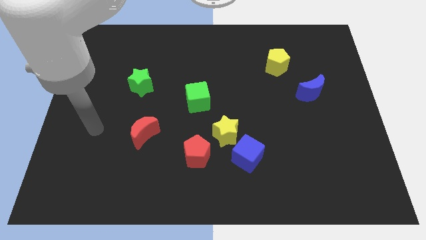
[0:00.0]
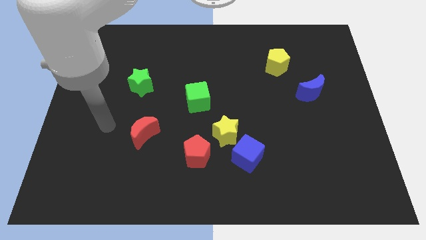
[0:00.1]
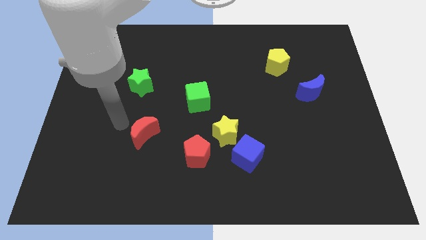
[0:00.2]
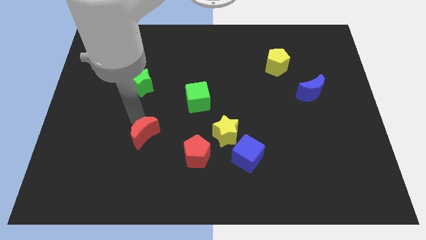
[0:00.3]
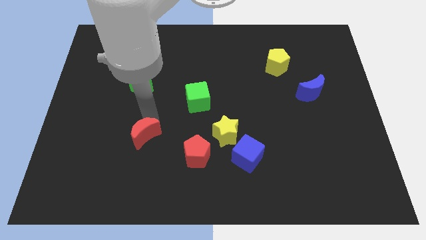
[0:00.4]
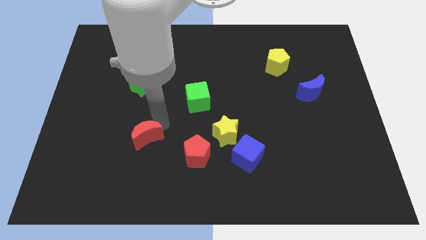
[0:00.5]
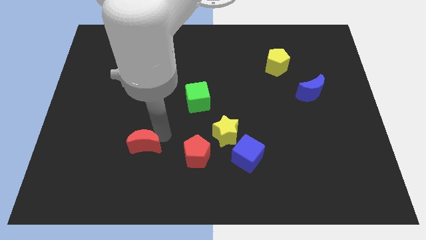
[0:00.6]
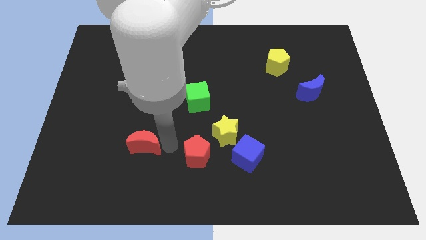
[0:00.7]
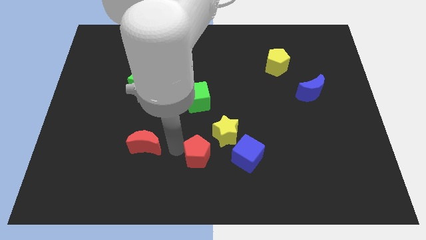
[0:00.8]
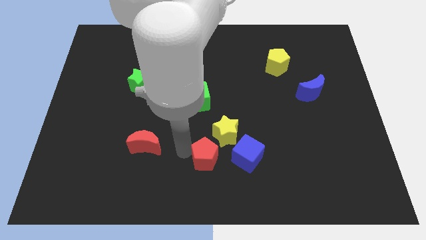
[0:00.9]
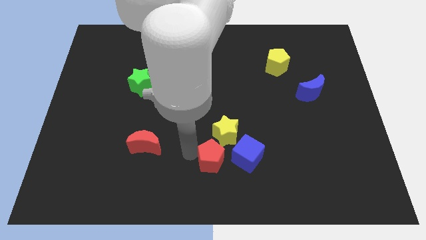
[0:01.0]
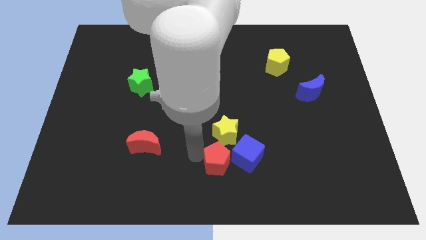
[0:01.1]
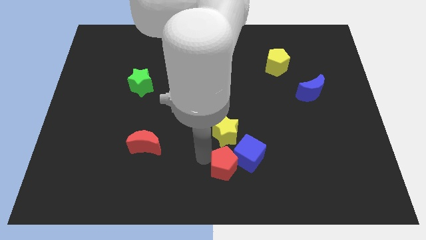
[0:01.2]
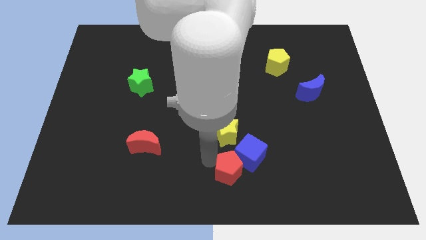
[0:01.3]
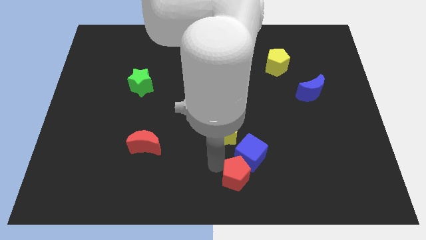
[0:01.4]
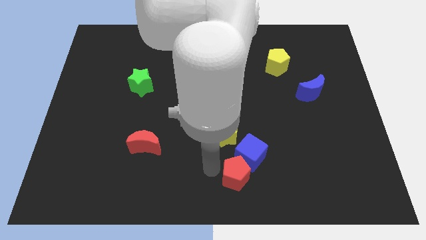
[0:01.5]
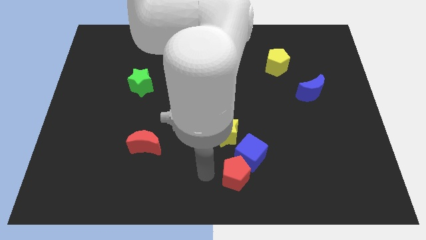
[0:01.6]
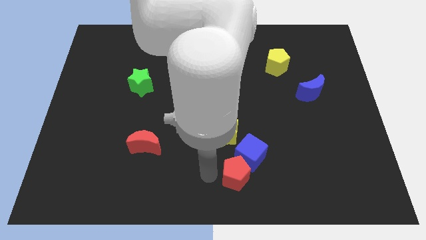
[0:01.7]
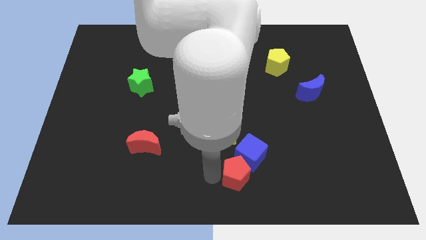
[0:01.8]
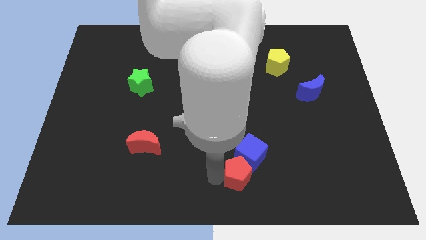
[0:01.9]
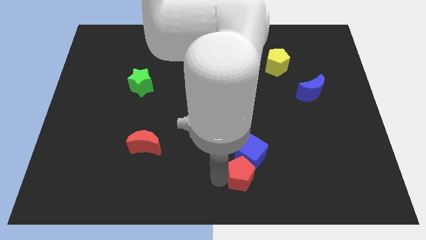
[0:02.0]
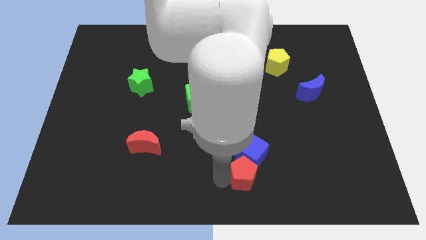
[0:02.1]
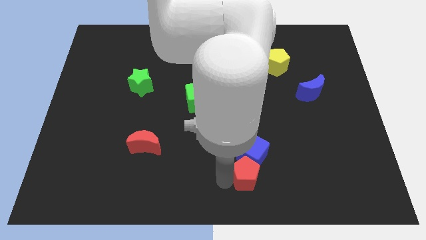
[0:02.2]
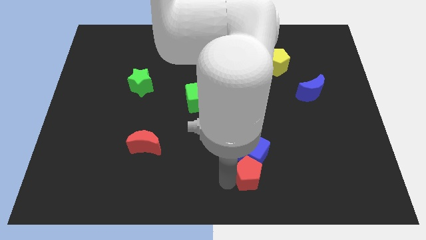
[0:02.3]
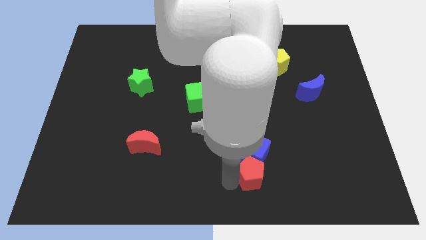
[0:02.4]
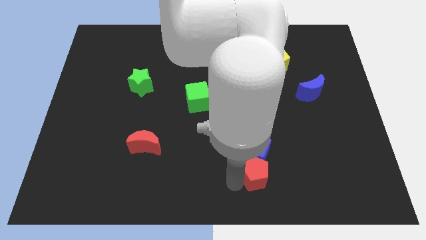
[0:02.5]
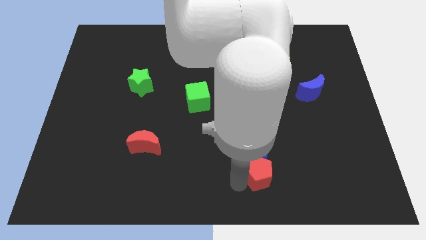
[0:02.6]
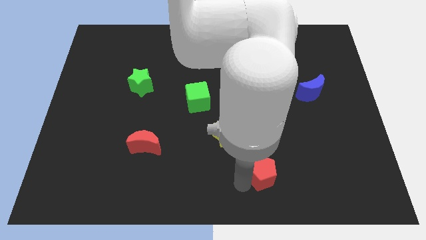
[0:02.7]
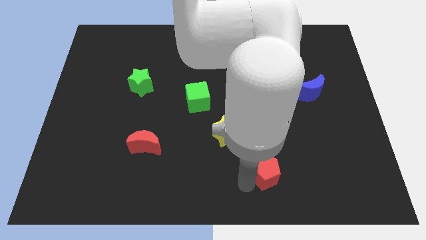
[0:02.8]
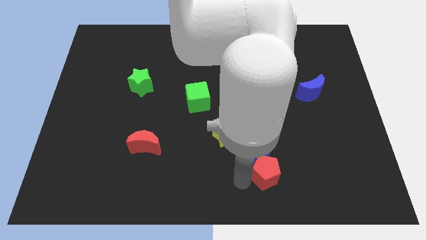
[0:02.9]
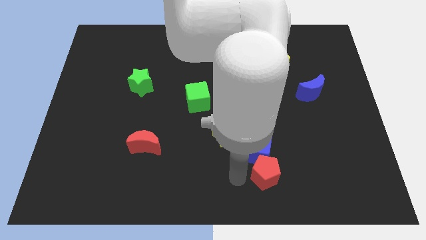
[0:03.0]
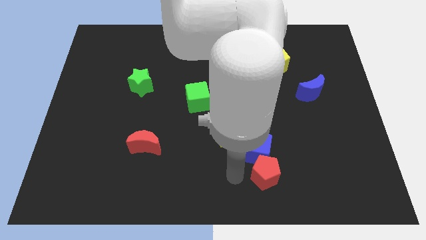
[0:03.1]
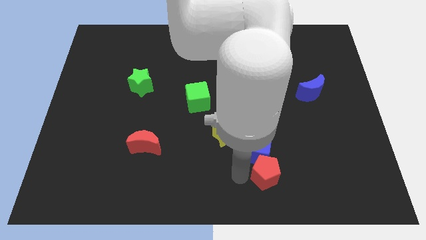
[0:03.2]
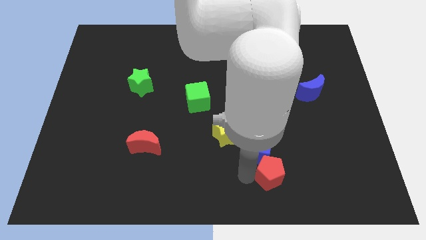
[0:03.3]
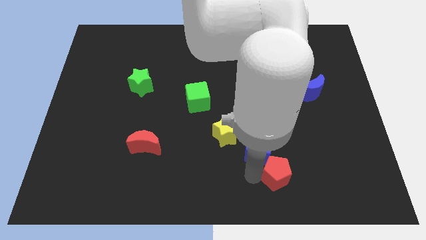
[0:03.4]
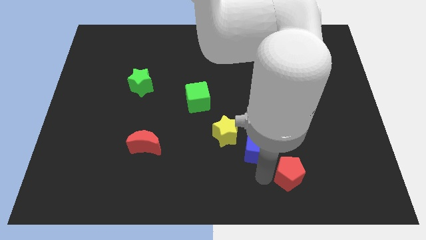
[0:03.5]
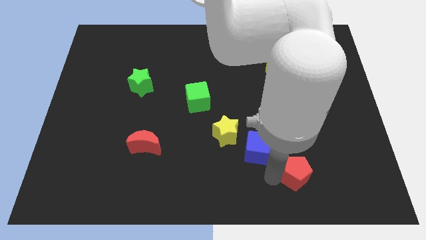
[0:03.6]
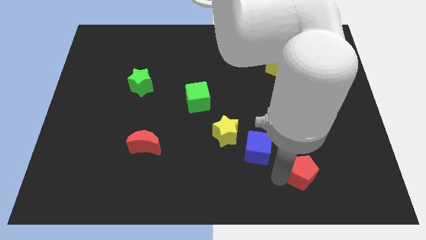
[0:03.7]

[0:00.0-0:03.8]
move the red pentagon right

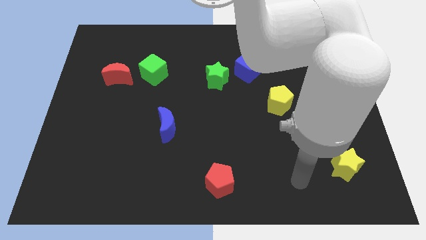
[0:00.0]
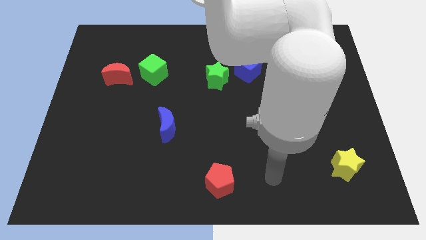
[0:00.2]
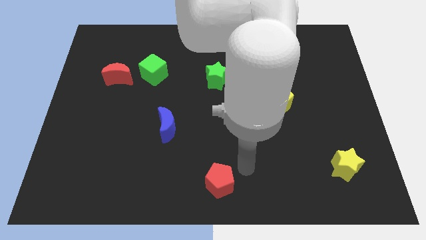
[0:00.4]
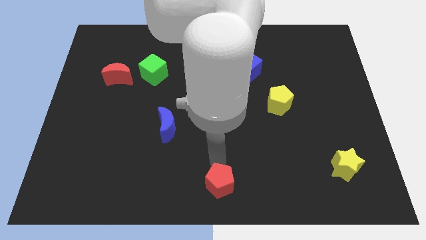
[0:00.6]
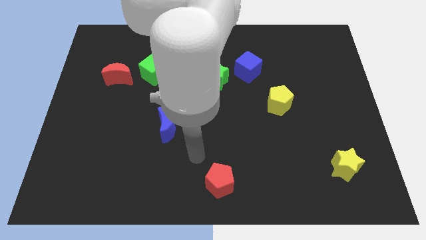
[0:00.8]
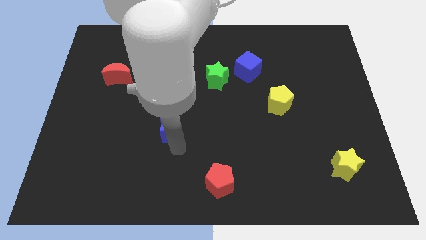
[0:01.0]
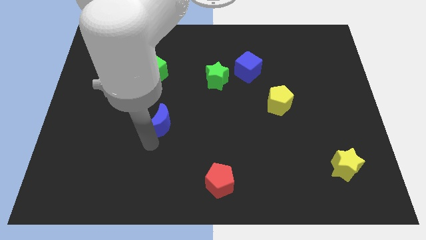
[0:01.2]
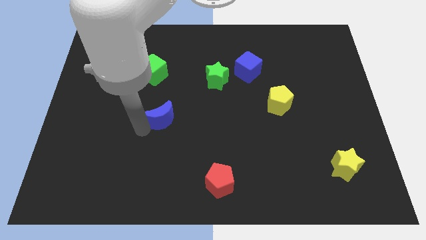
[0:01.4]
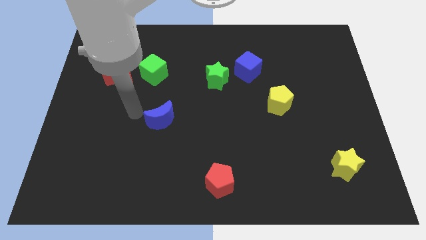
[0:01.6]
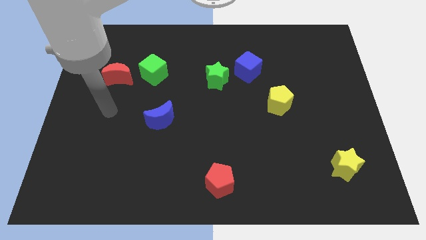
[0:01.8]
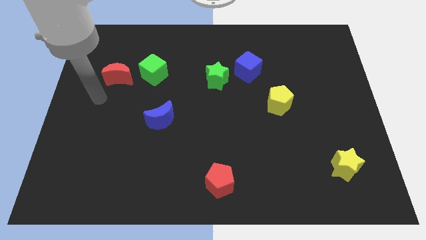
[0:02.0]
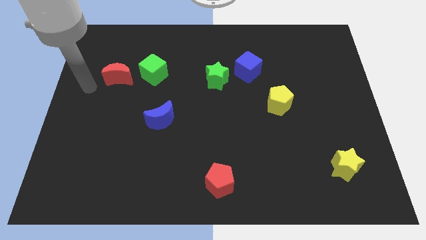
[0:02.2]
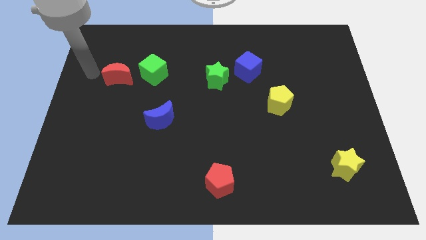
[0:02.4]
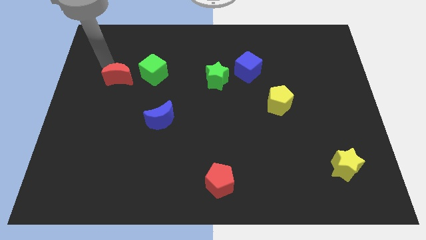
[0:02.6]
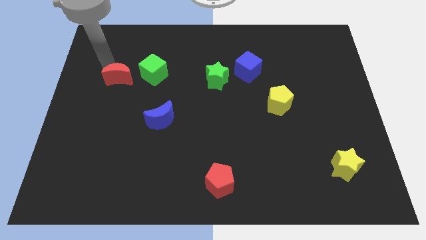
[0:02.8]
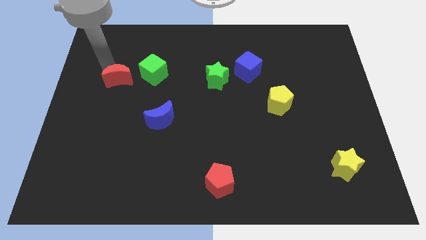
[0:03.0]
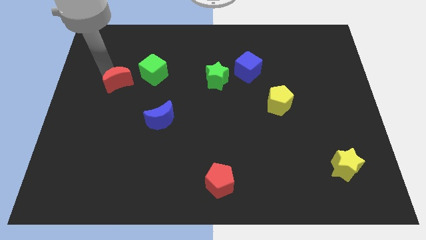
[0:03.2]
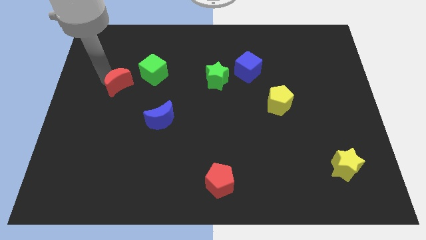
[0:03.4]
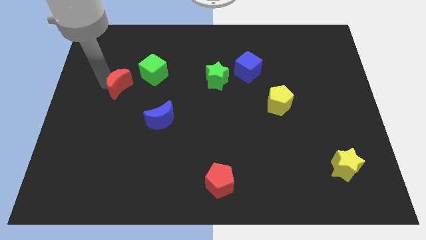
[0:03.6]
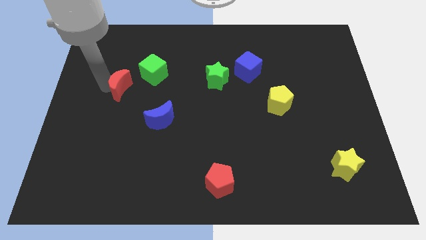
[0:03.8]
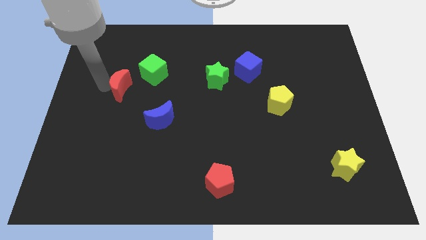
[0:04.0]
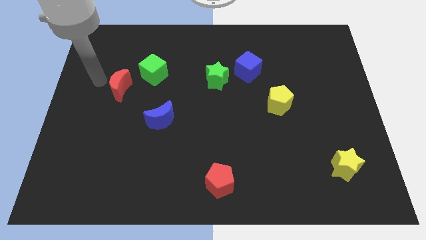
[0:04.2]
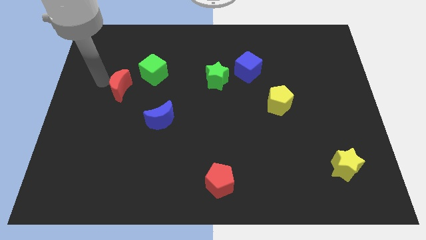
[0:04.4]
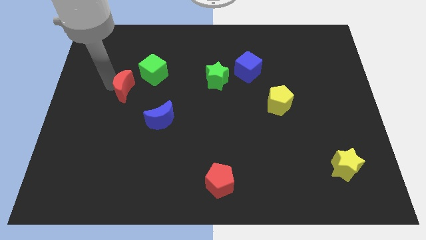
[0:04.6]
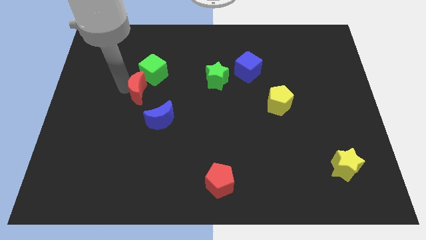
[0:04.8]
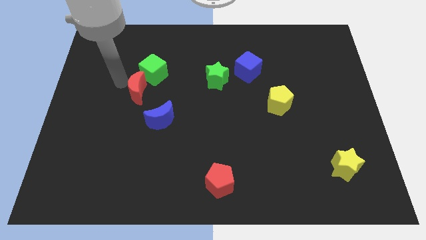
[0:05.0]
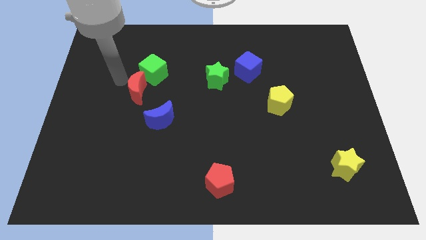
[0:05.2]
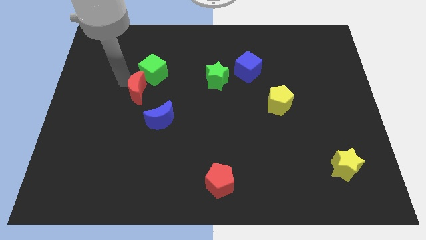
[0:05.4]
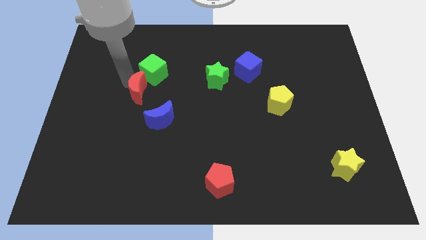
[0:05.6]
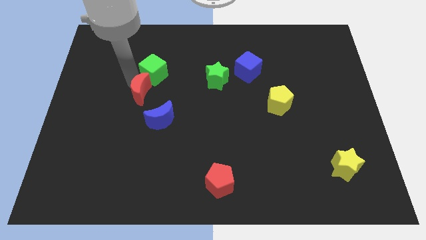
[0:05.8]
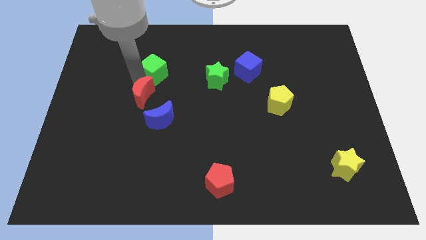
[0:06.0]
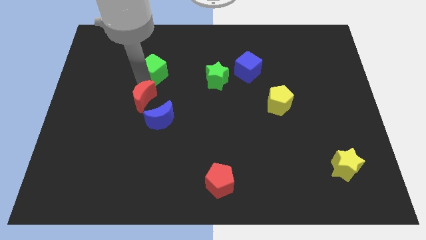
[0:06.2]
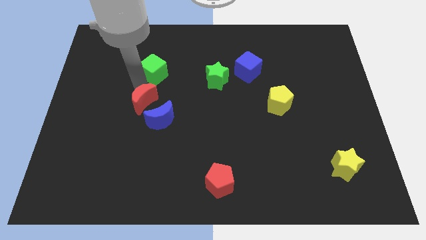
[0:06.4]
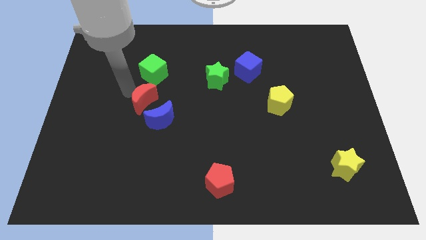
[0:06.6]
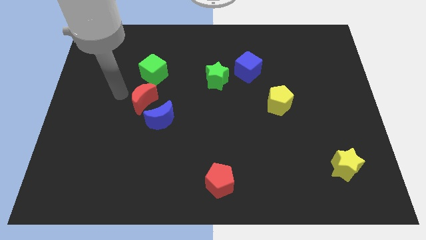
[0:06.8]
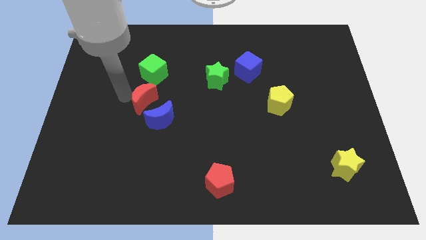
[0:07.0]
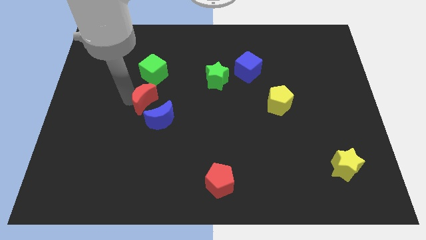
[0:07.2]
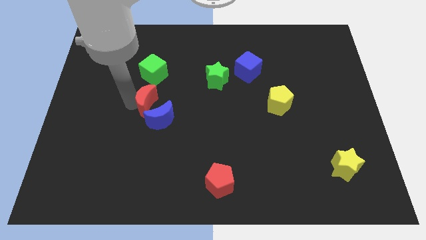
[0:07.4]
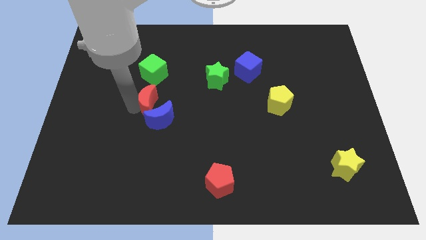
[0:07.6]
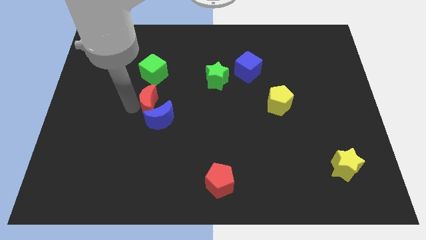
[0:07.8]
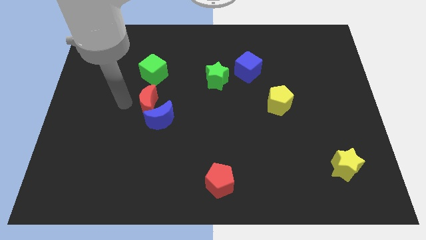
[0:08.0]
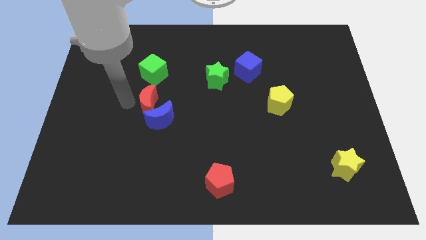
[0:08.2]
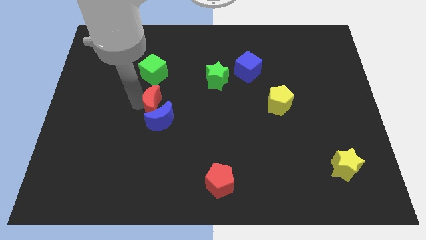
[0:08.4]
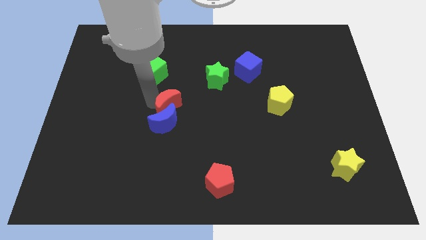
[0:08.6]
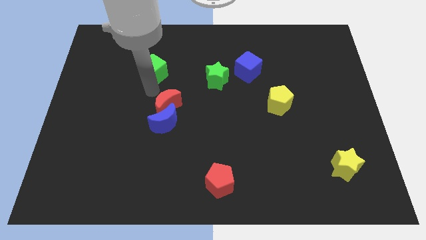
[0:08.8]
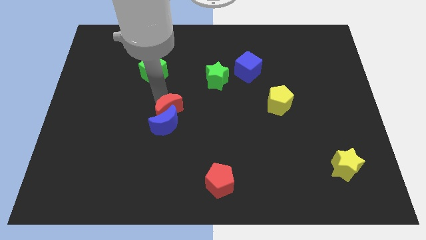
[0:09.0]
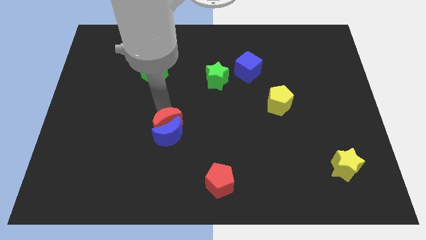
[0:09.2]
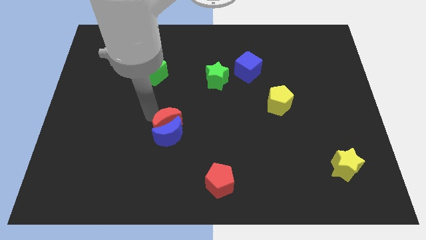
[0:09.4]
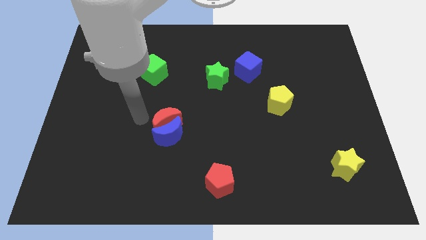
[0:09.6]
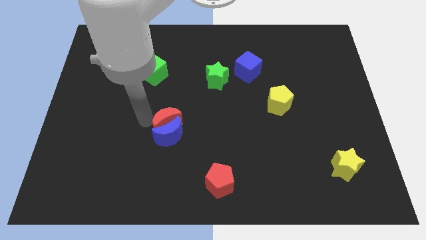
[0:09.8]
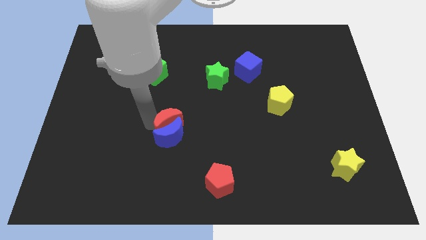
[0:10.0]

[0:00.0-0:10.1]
move the red moon diagonally down and to the right
